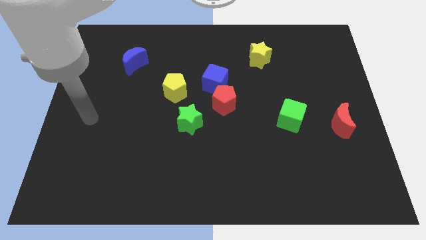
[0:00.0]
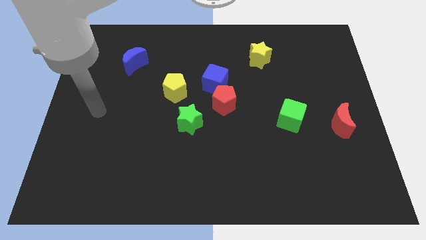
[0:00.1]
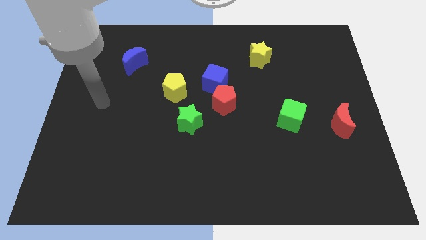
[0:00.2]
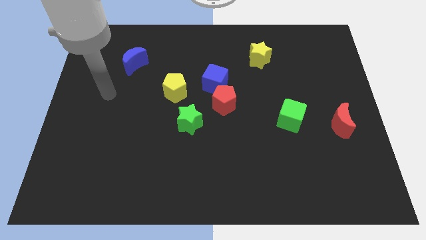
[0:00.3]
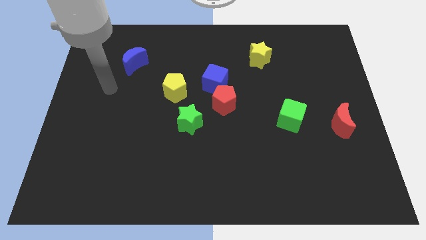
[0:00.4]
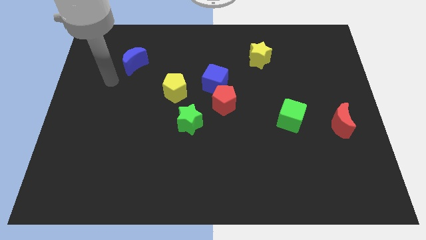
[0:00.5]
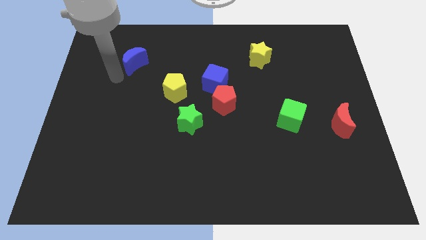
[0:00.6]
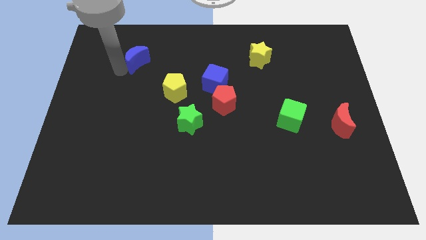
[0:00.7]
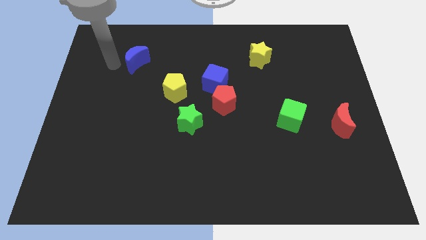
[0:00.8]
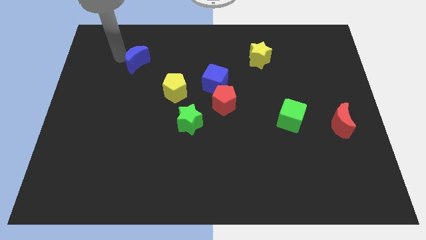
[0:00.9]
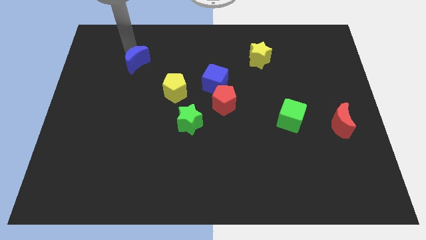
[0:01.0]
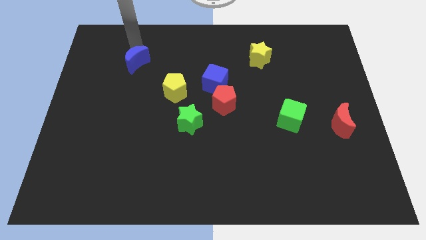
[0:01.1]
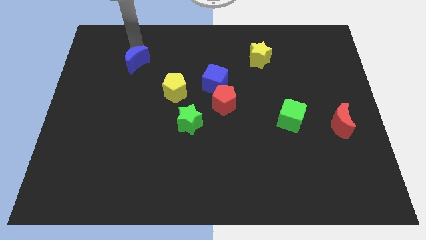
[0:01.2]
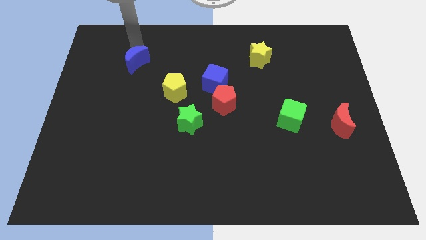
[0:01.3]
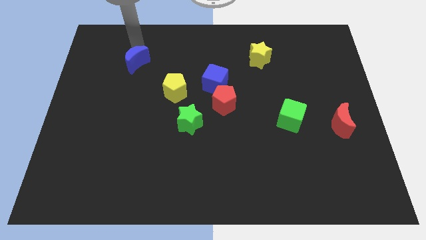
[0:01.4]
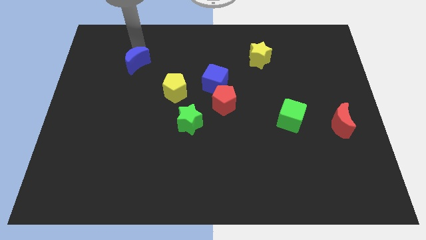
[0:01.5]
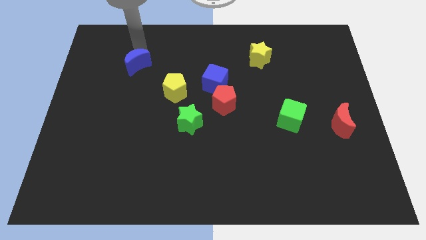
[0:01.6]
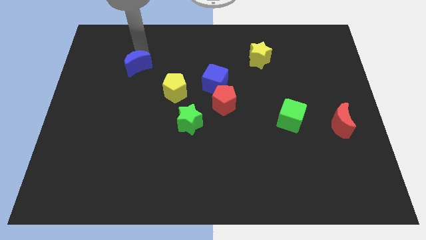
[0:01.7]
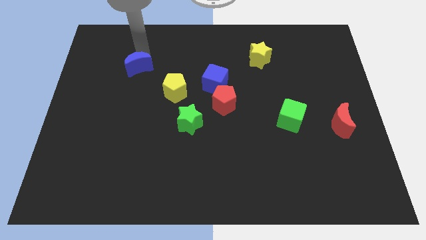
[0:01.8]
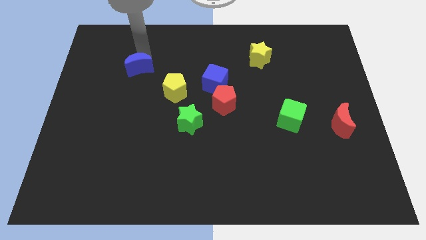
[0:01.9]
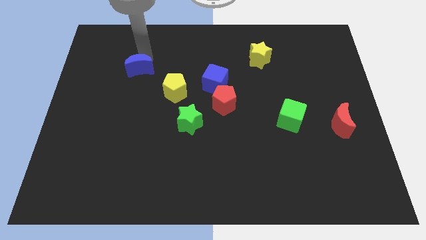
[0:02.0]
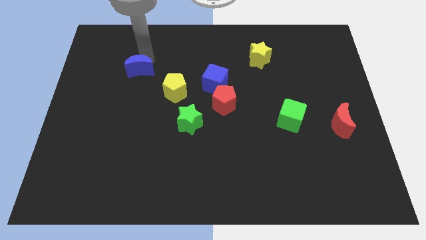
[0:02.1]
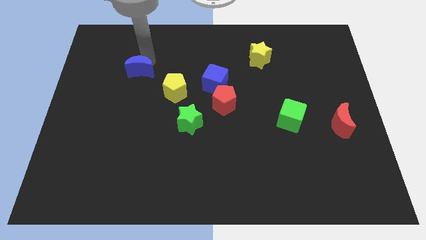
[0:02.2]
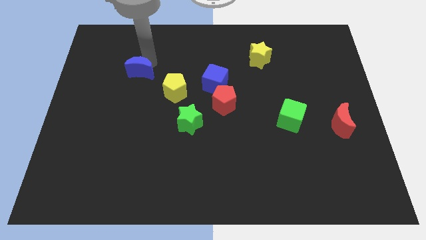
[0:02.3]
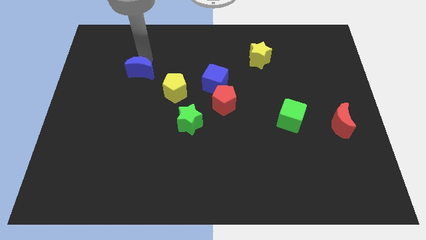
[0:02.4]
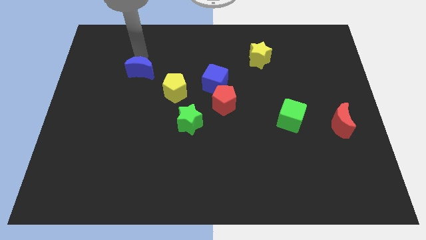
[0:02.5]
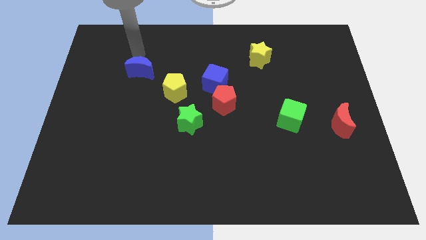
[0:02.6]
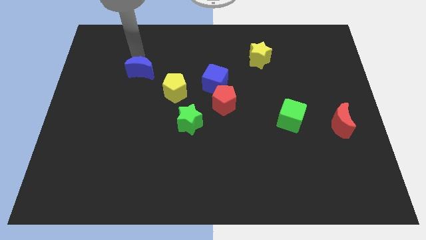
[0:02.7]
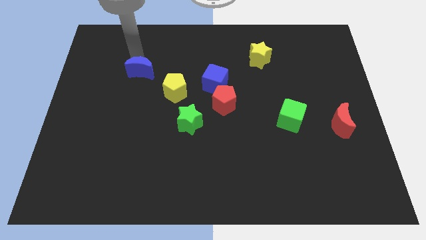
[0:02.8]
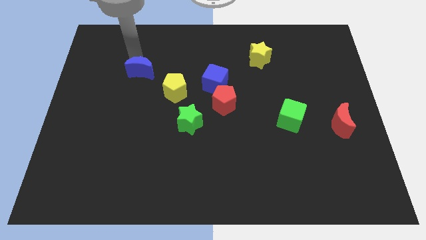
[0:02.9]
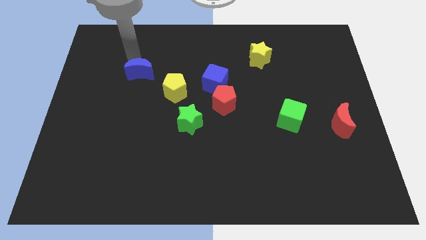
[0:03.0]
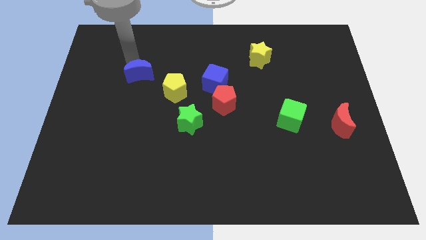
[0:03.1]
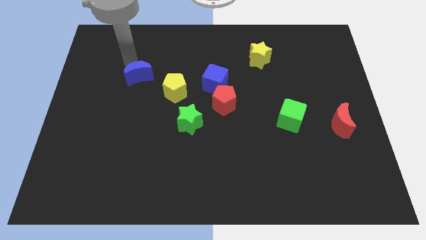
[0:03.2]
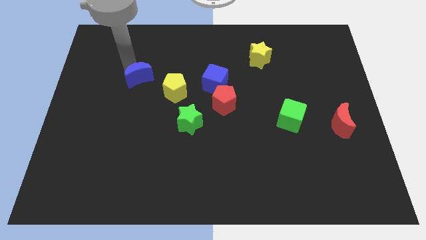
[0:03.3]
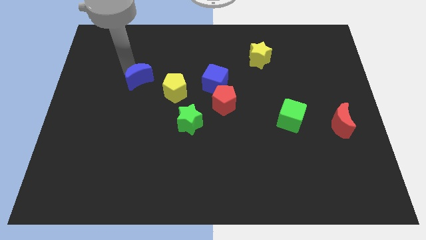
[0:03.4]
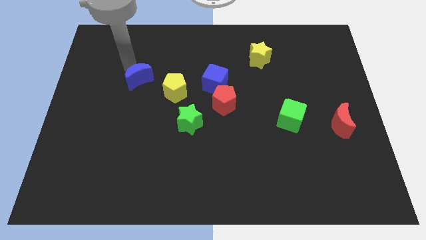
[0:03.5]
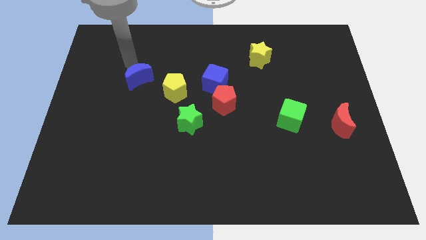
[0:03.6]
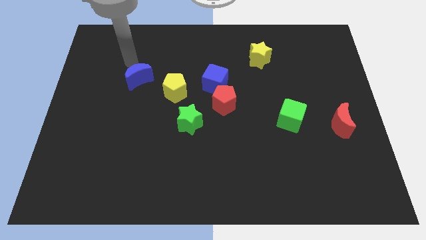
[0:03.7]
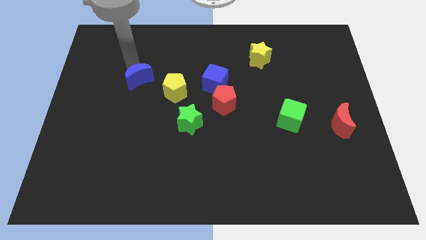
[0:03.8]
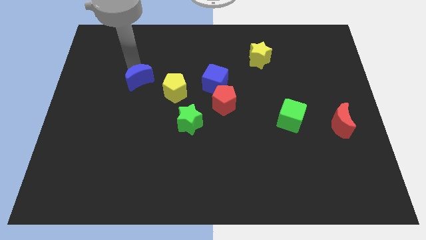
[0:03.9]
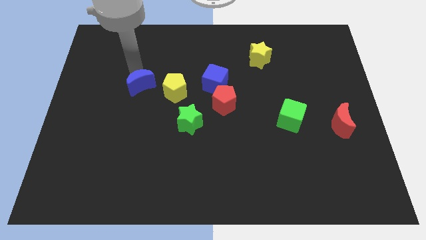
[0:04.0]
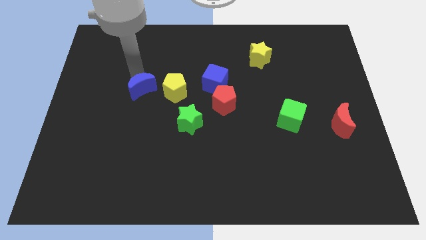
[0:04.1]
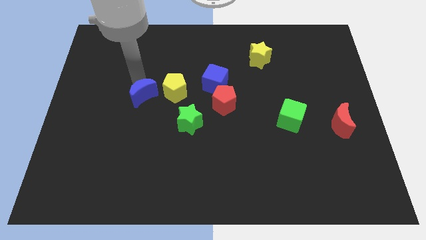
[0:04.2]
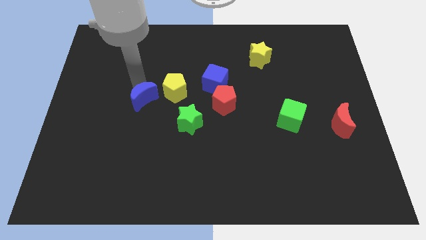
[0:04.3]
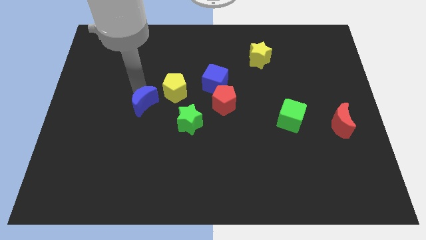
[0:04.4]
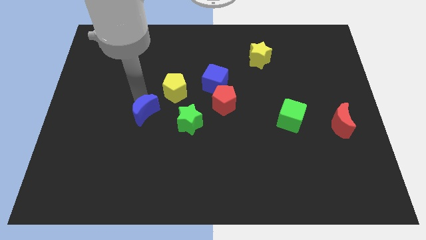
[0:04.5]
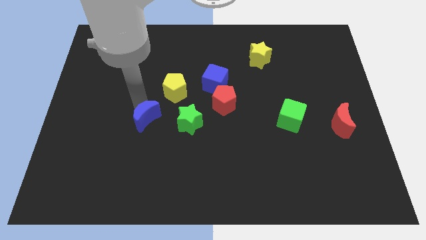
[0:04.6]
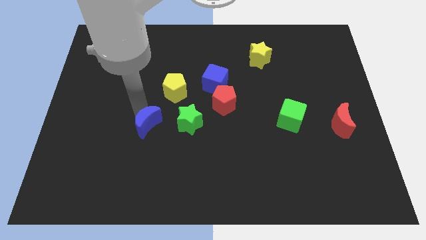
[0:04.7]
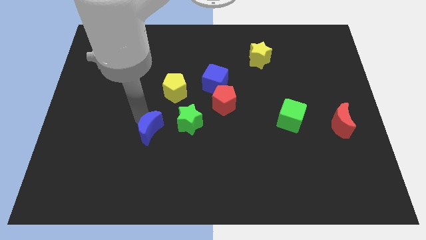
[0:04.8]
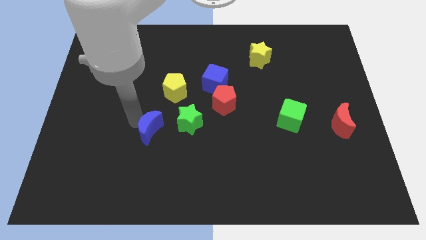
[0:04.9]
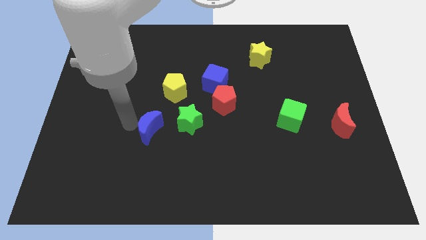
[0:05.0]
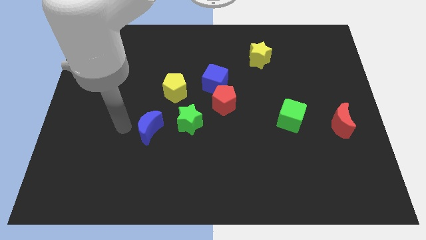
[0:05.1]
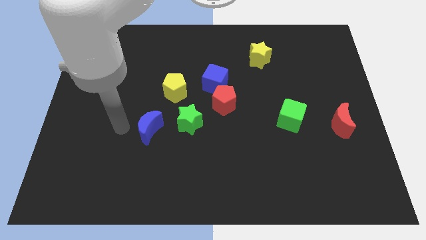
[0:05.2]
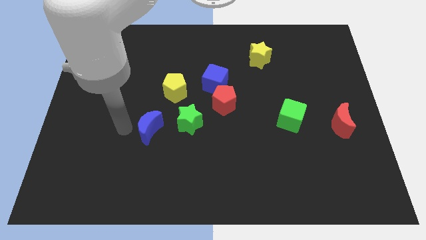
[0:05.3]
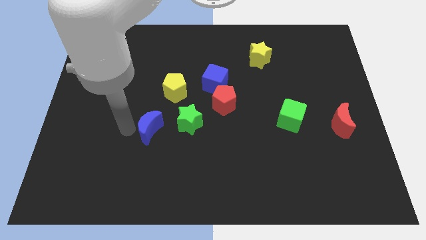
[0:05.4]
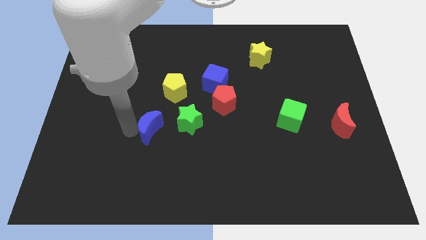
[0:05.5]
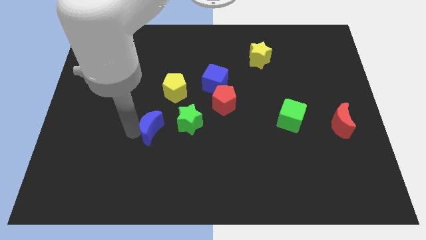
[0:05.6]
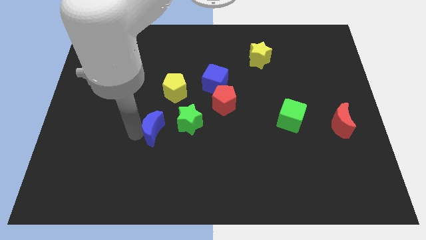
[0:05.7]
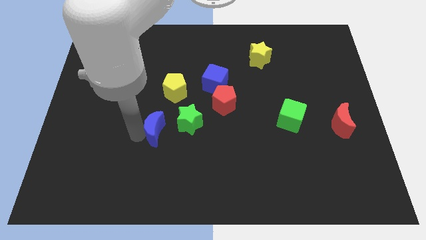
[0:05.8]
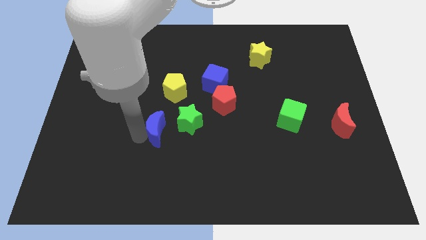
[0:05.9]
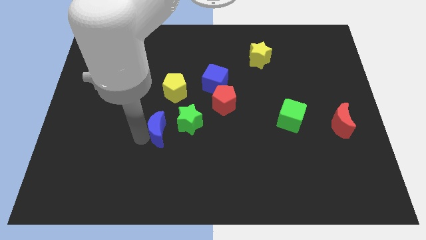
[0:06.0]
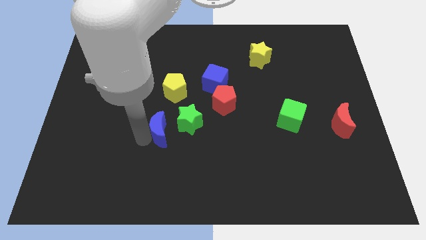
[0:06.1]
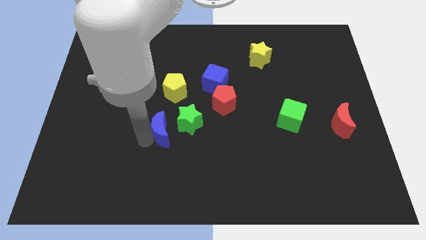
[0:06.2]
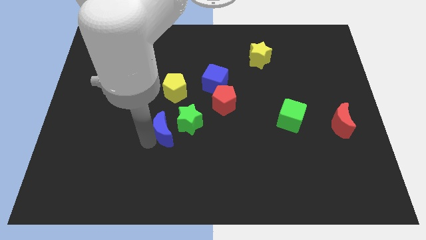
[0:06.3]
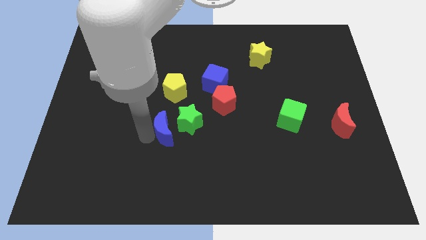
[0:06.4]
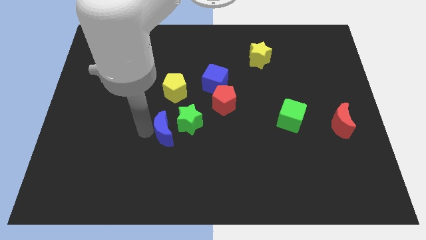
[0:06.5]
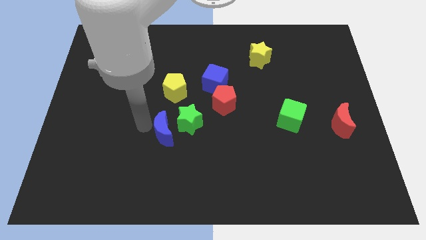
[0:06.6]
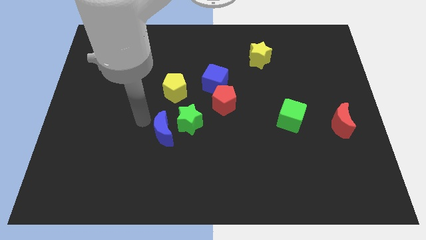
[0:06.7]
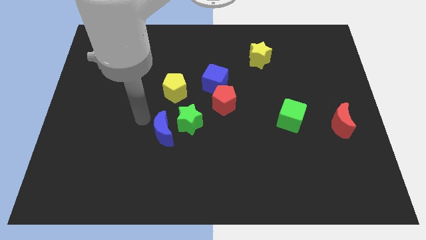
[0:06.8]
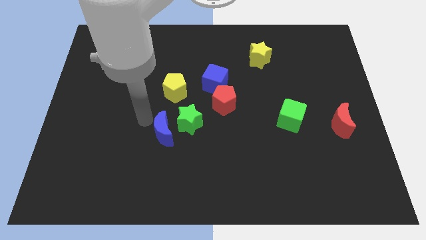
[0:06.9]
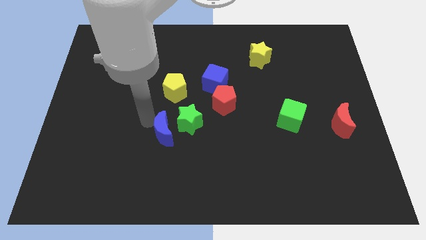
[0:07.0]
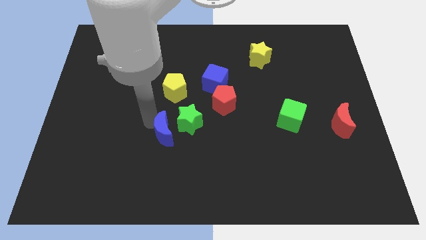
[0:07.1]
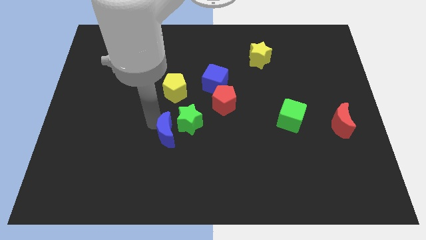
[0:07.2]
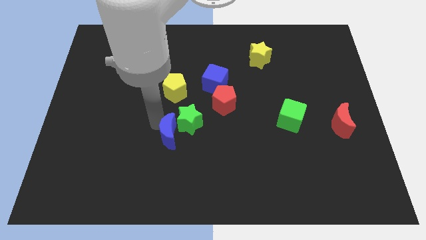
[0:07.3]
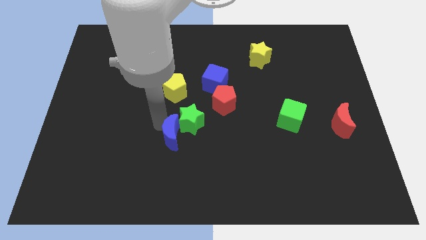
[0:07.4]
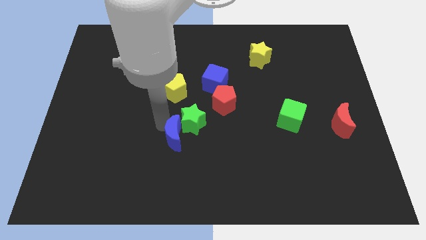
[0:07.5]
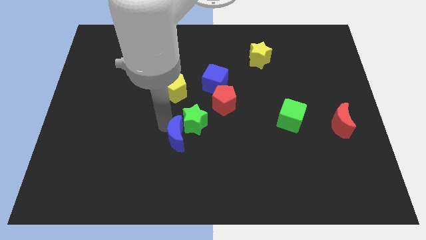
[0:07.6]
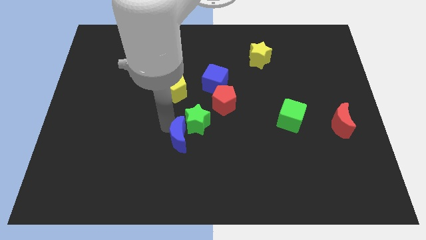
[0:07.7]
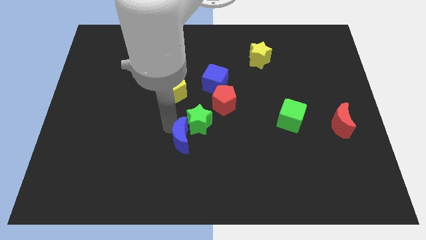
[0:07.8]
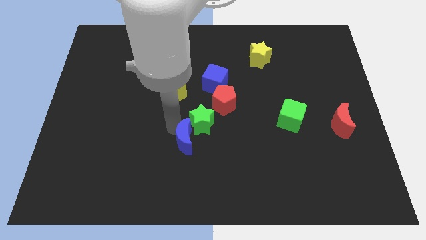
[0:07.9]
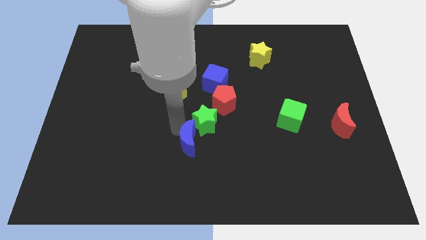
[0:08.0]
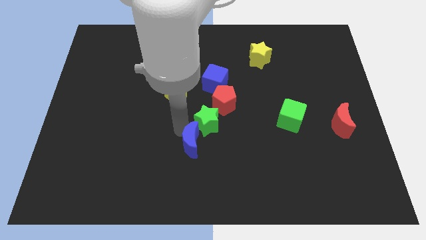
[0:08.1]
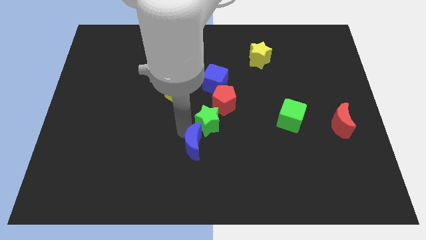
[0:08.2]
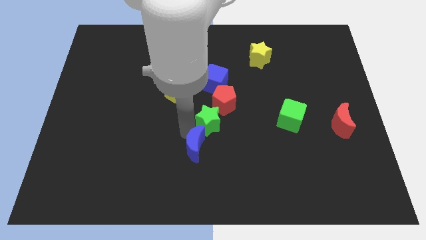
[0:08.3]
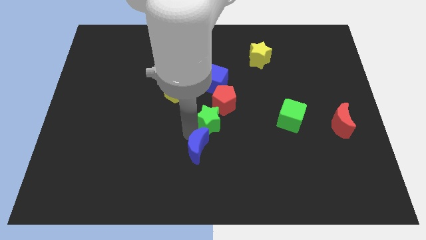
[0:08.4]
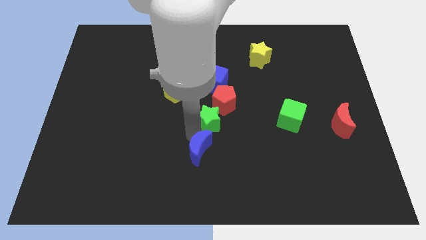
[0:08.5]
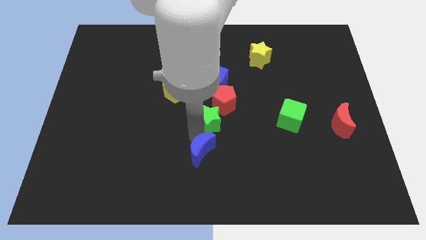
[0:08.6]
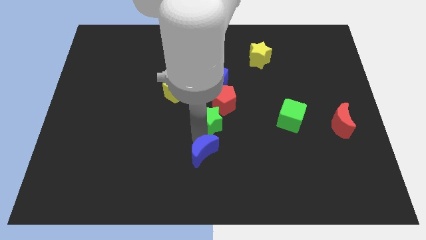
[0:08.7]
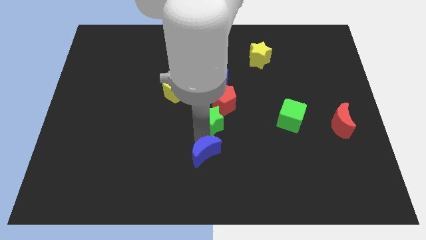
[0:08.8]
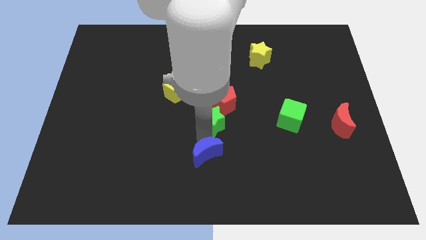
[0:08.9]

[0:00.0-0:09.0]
put the blue moon to the bottom
